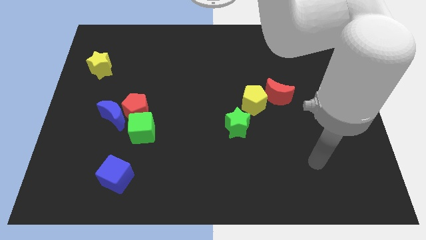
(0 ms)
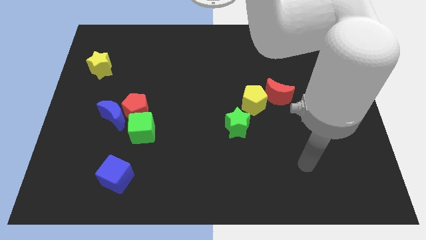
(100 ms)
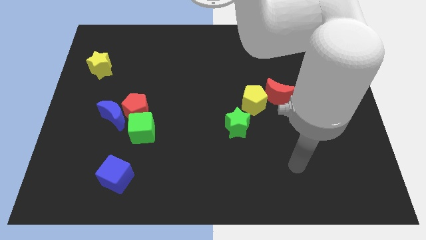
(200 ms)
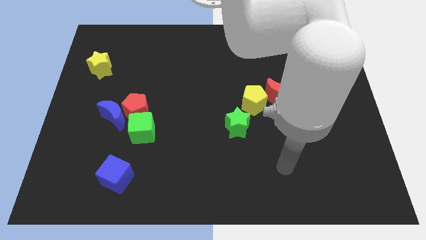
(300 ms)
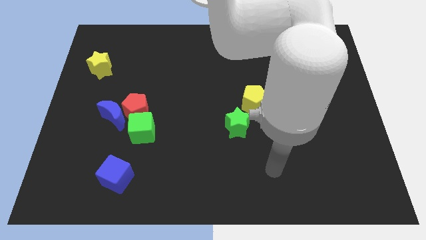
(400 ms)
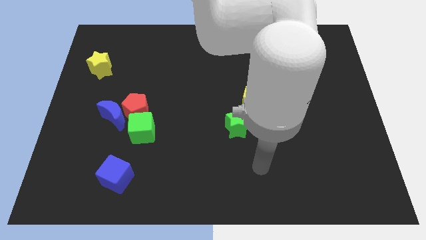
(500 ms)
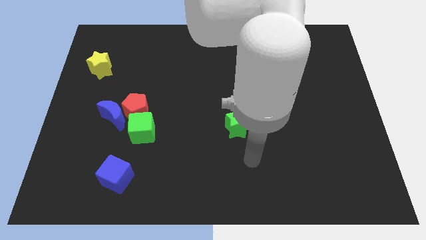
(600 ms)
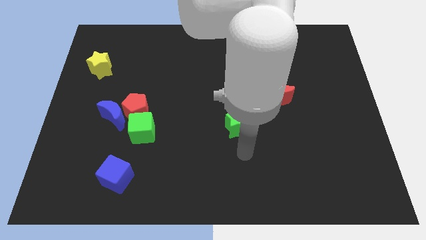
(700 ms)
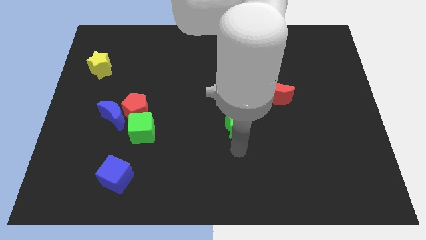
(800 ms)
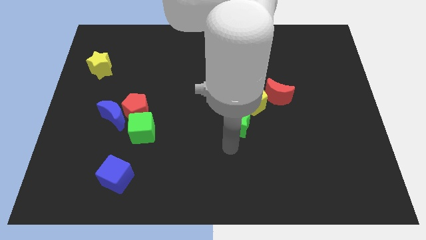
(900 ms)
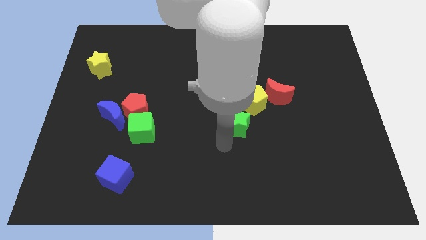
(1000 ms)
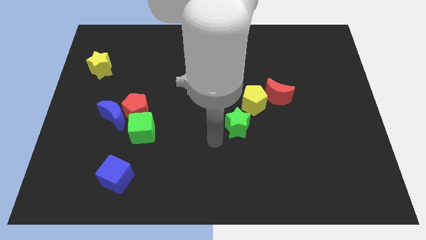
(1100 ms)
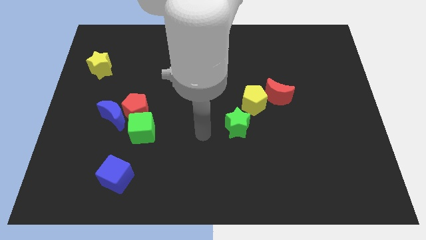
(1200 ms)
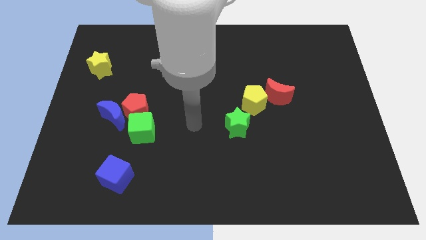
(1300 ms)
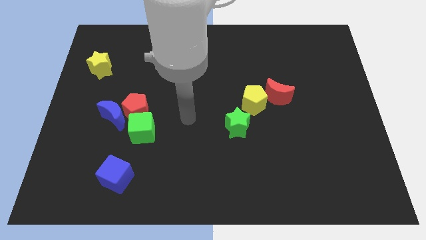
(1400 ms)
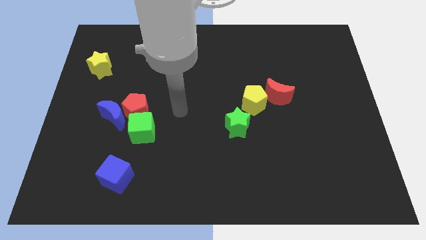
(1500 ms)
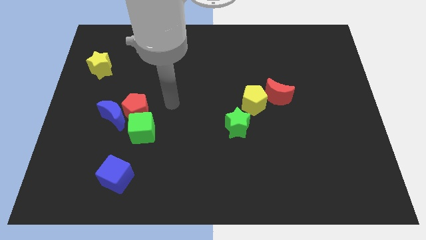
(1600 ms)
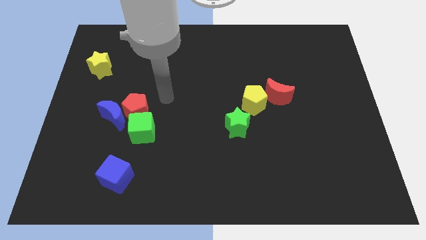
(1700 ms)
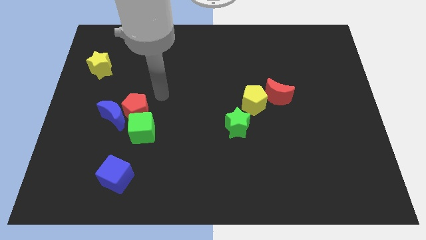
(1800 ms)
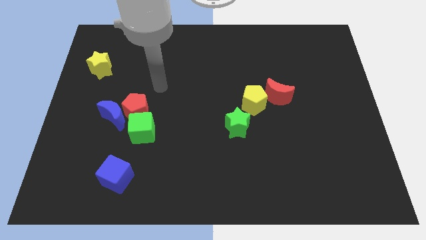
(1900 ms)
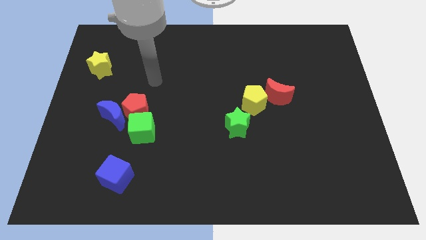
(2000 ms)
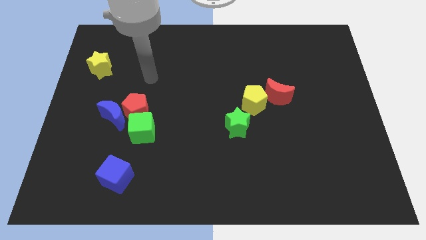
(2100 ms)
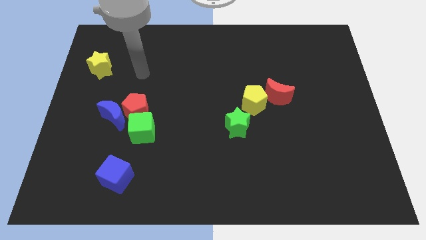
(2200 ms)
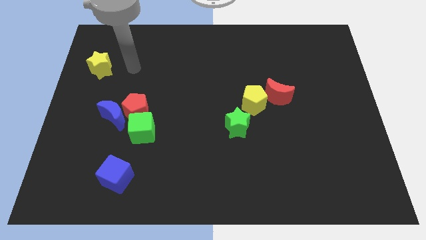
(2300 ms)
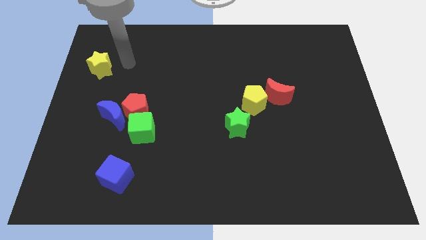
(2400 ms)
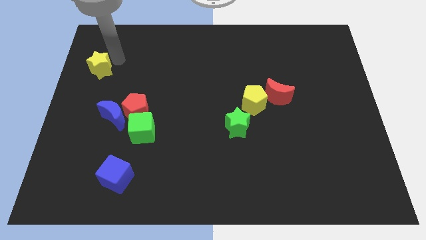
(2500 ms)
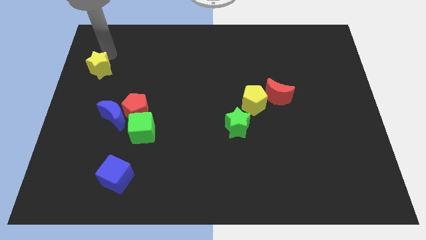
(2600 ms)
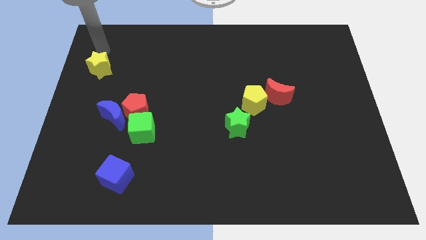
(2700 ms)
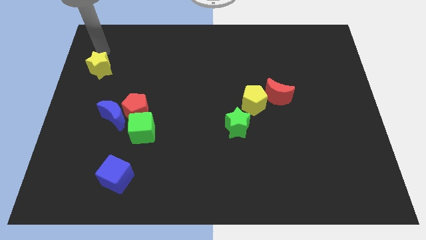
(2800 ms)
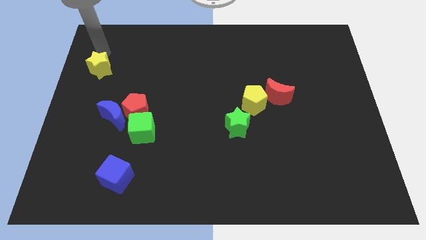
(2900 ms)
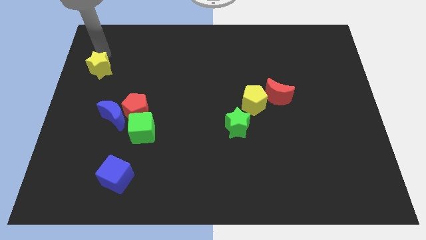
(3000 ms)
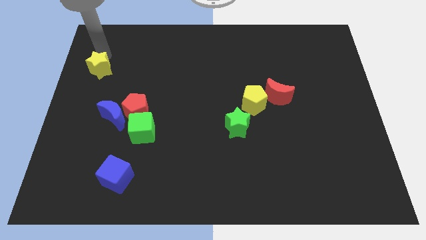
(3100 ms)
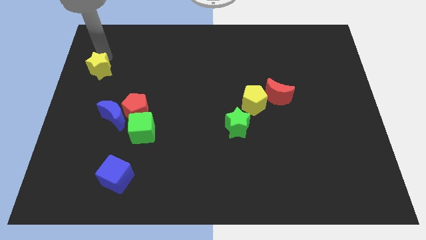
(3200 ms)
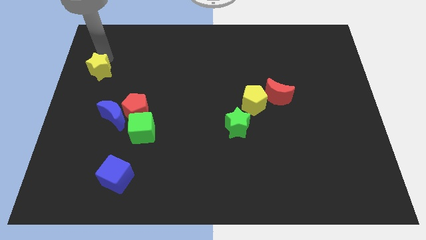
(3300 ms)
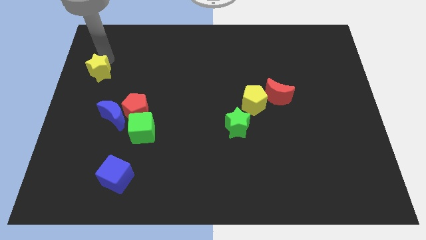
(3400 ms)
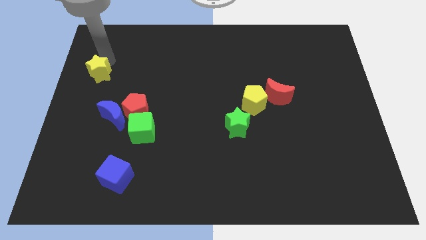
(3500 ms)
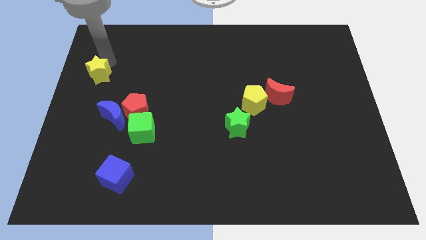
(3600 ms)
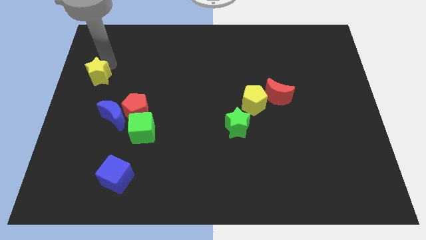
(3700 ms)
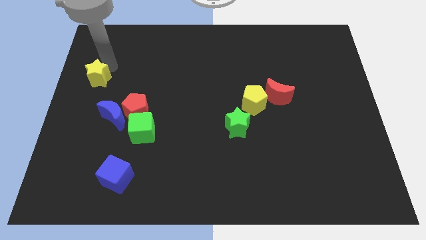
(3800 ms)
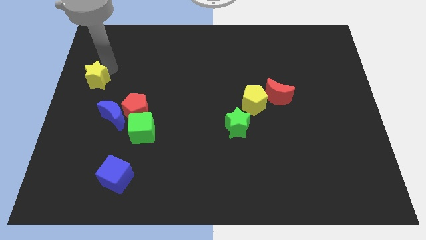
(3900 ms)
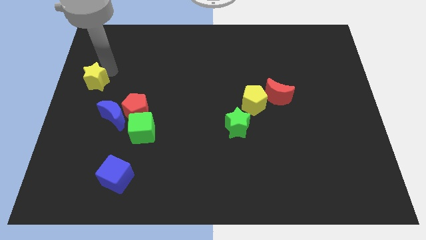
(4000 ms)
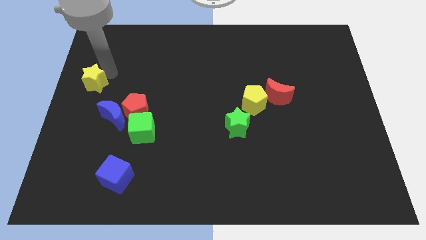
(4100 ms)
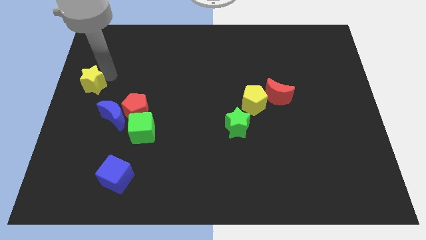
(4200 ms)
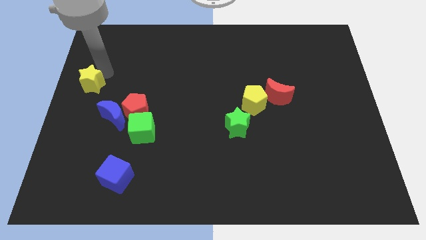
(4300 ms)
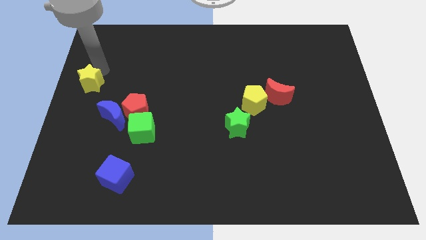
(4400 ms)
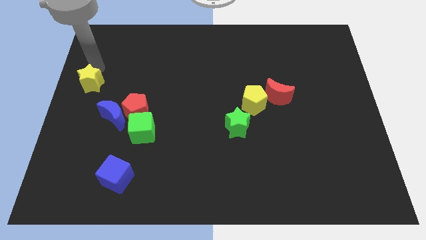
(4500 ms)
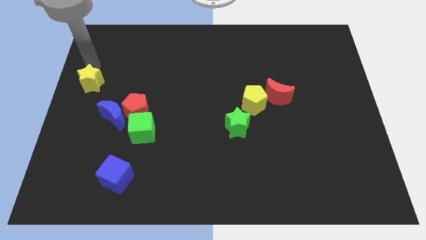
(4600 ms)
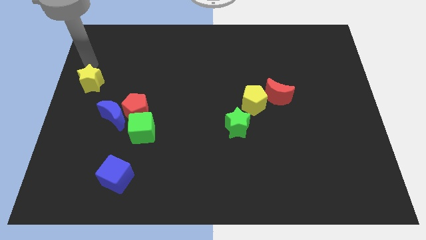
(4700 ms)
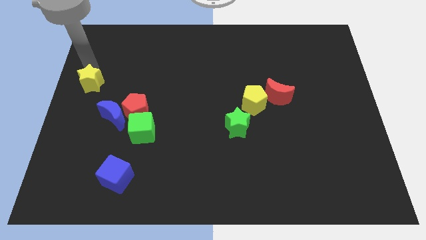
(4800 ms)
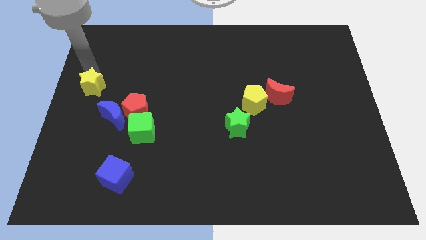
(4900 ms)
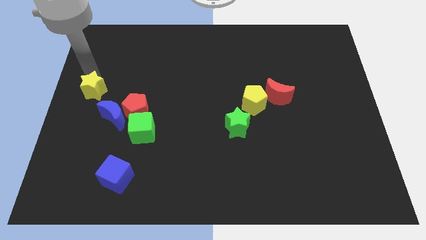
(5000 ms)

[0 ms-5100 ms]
slightly slide the yellow star downwards

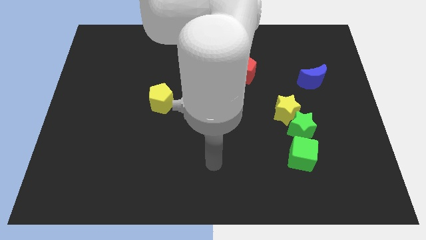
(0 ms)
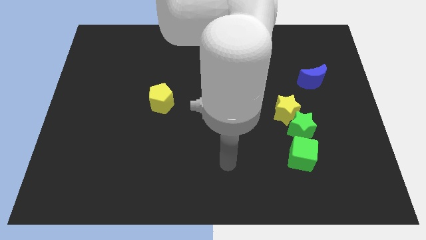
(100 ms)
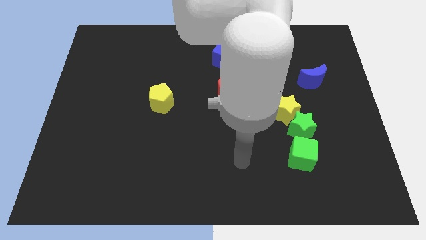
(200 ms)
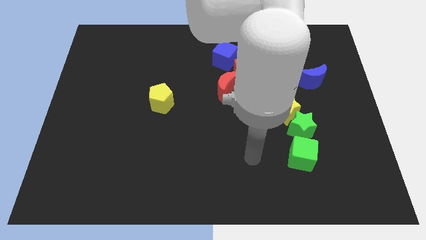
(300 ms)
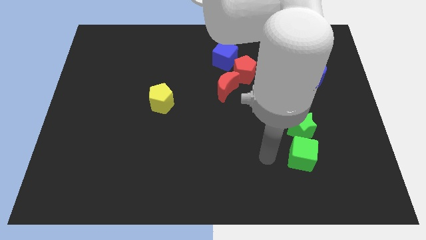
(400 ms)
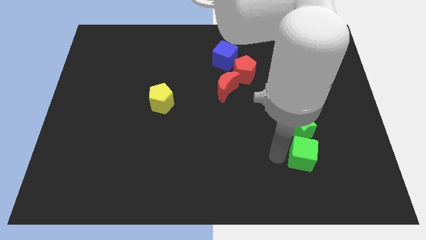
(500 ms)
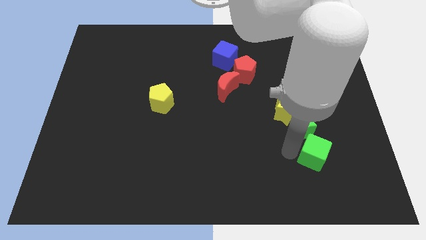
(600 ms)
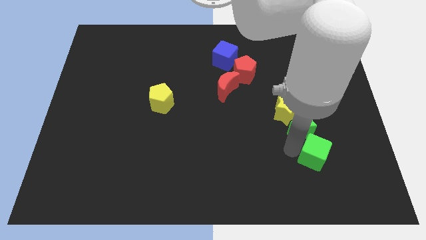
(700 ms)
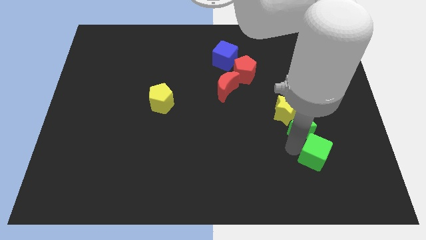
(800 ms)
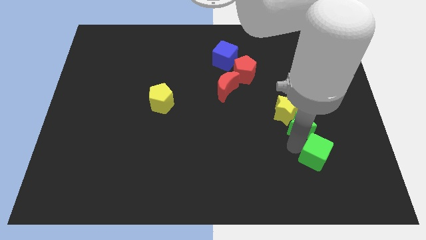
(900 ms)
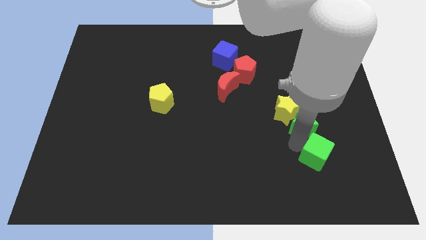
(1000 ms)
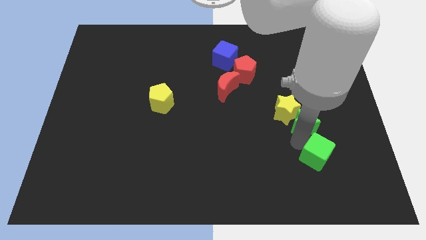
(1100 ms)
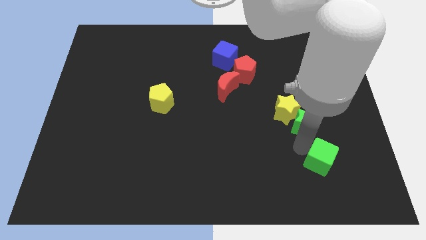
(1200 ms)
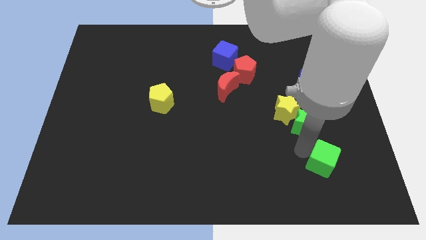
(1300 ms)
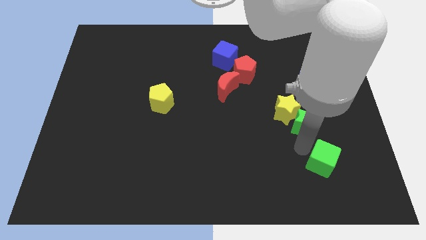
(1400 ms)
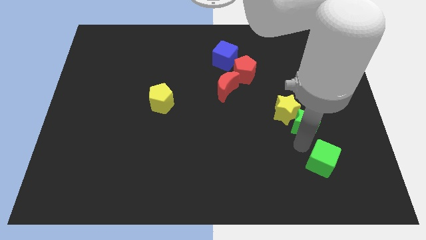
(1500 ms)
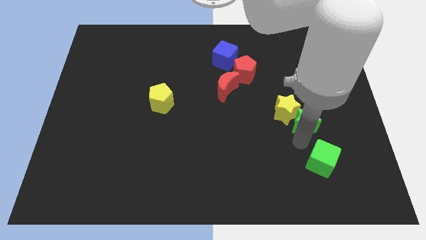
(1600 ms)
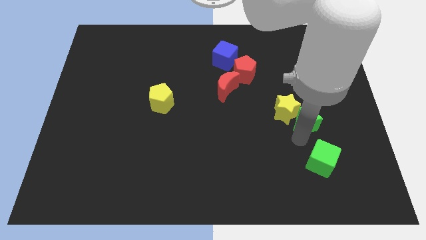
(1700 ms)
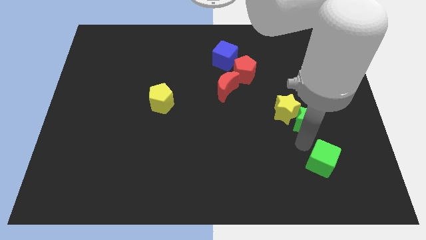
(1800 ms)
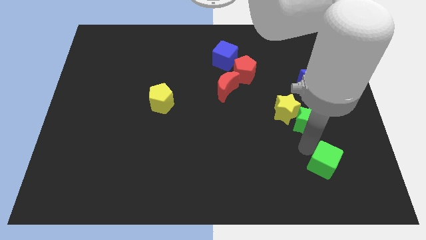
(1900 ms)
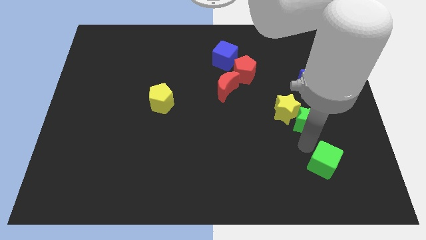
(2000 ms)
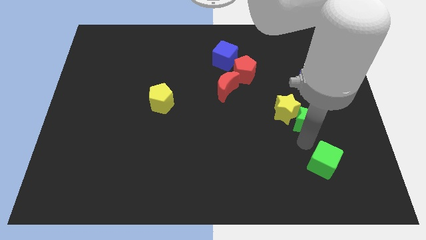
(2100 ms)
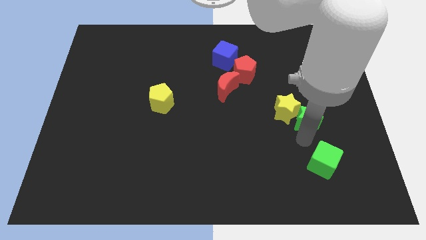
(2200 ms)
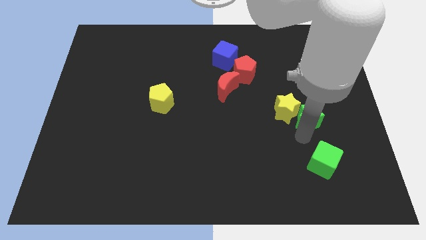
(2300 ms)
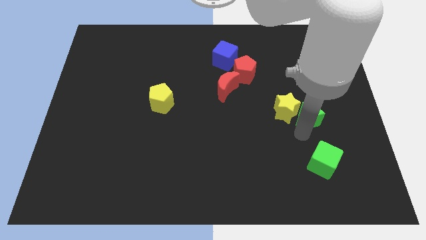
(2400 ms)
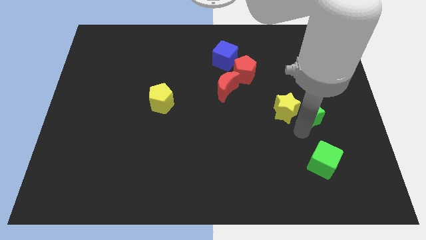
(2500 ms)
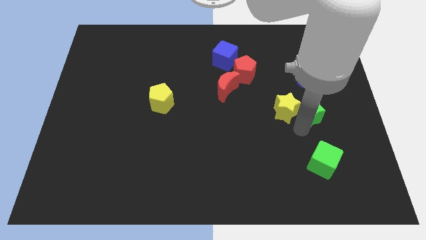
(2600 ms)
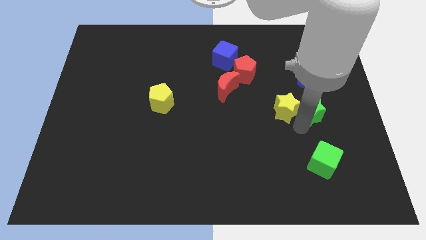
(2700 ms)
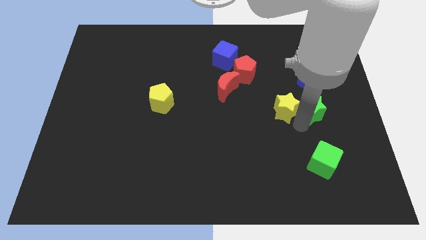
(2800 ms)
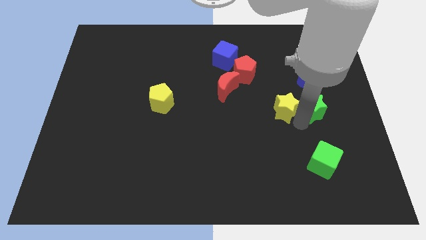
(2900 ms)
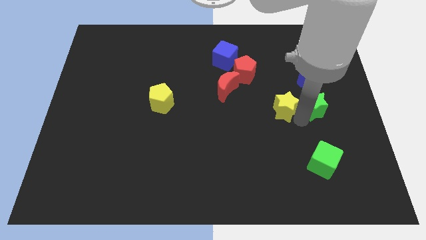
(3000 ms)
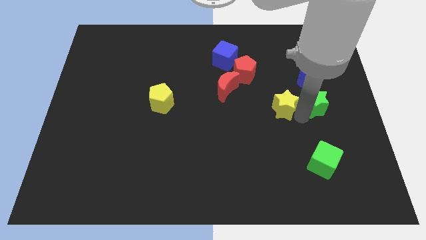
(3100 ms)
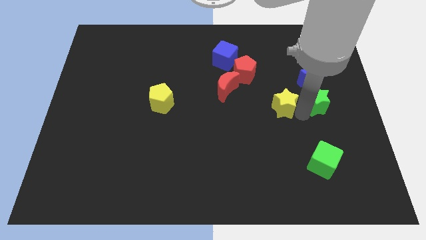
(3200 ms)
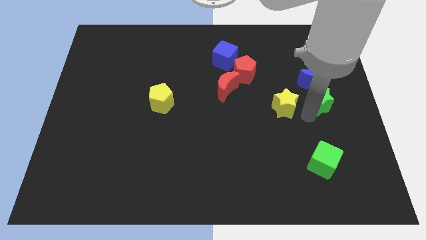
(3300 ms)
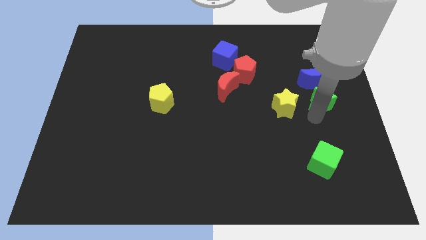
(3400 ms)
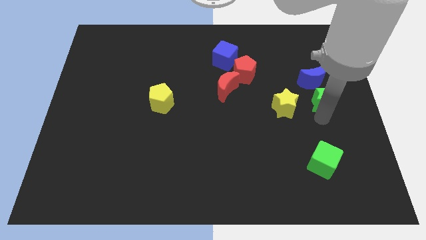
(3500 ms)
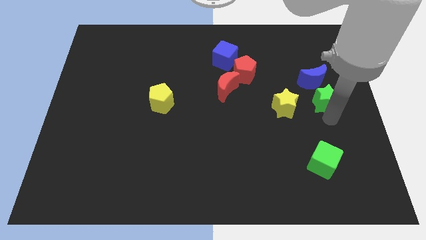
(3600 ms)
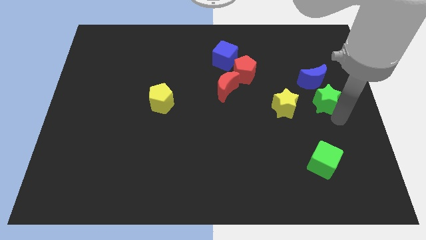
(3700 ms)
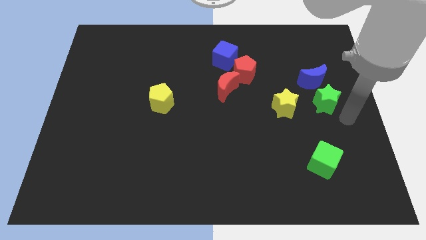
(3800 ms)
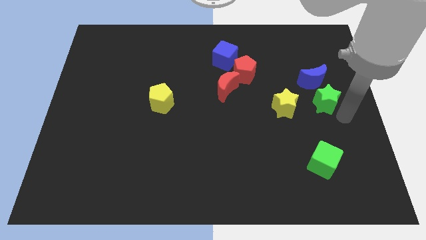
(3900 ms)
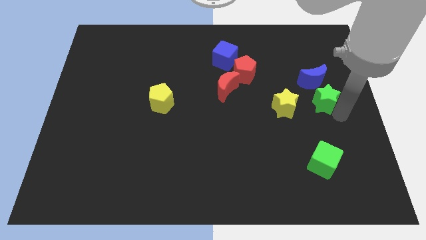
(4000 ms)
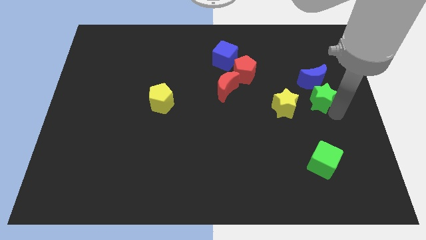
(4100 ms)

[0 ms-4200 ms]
move the green star up a little
